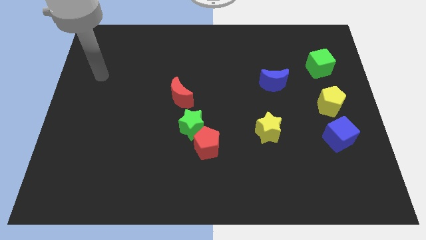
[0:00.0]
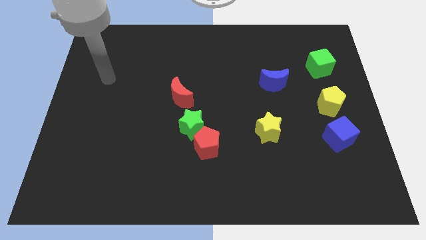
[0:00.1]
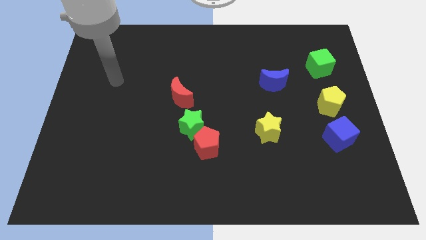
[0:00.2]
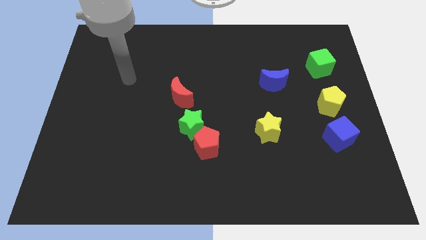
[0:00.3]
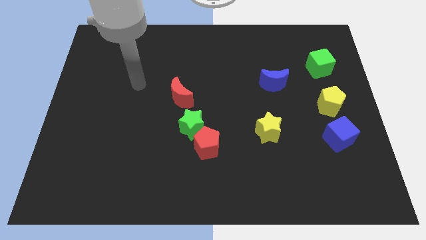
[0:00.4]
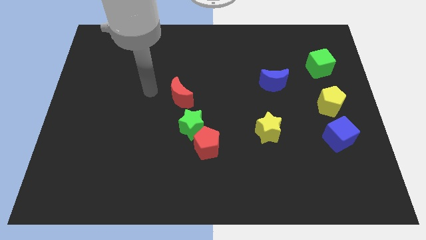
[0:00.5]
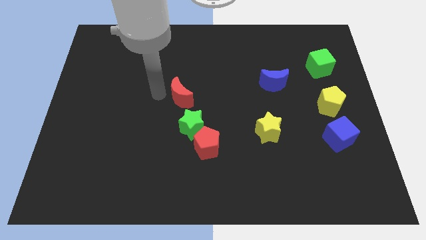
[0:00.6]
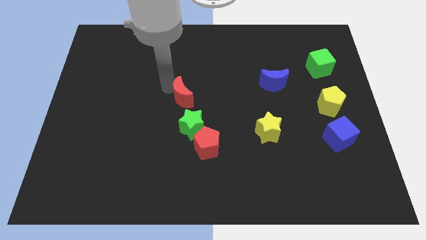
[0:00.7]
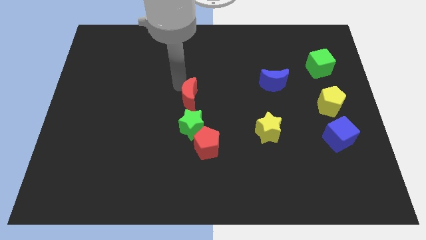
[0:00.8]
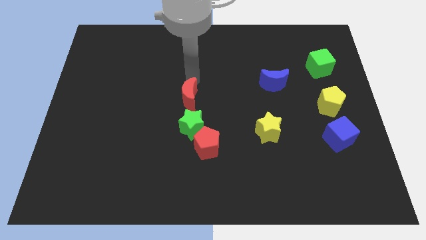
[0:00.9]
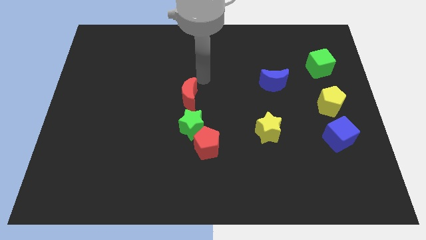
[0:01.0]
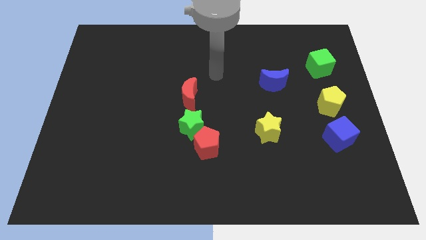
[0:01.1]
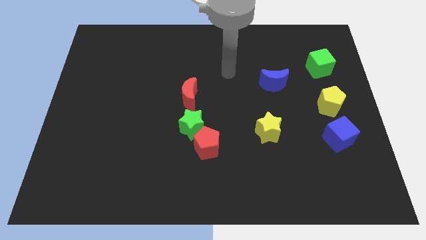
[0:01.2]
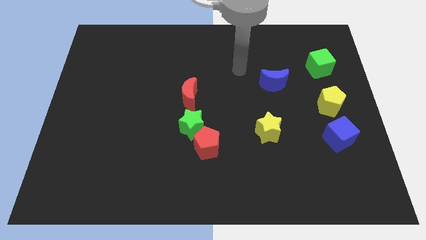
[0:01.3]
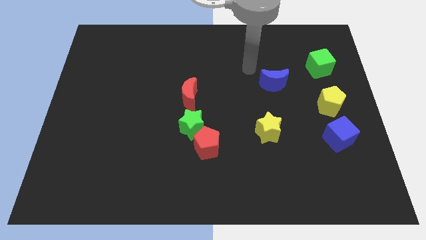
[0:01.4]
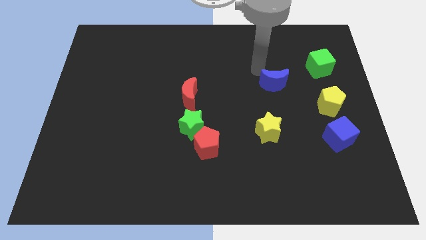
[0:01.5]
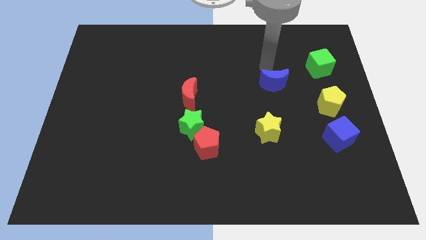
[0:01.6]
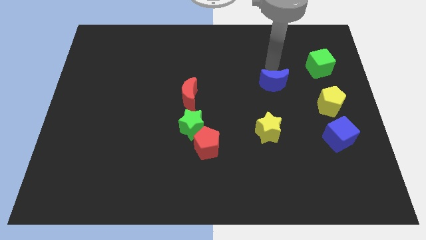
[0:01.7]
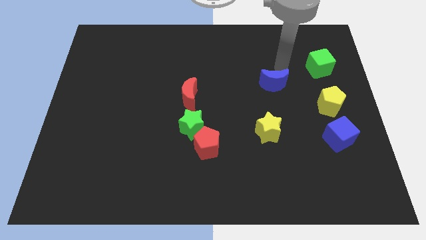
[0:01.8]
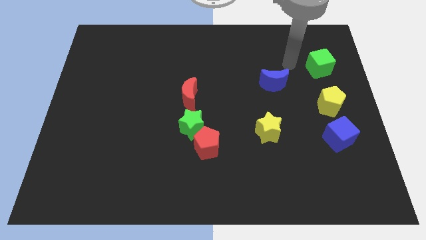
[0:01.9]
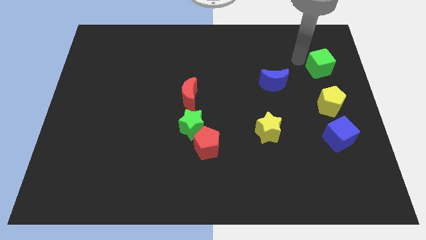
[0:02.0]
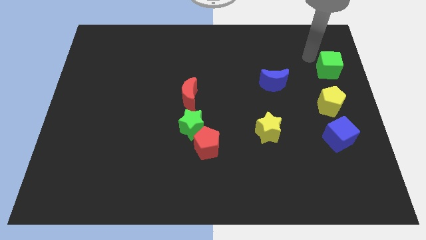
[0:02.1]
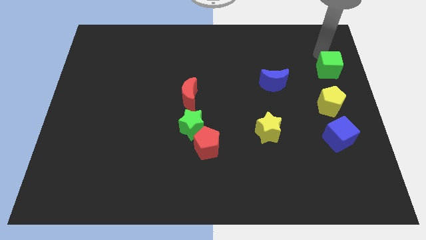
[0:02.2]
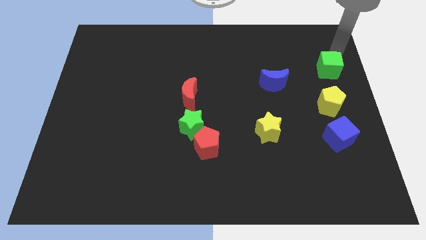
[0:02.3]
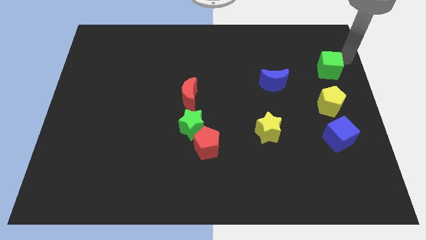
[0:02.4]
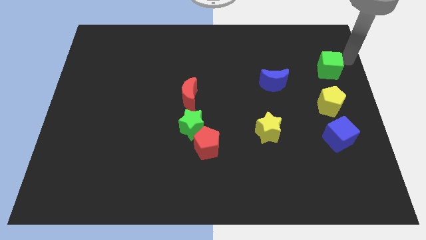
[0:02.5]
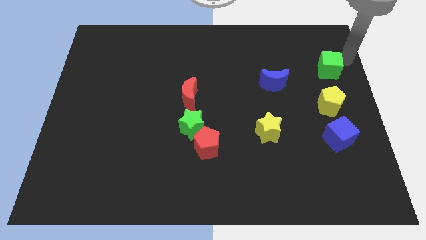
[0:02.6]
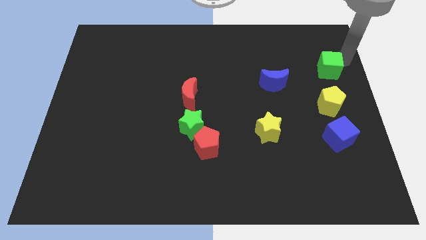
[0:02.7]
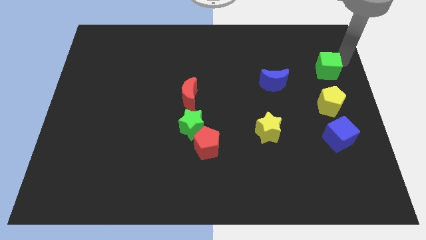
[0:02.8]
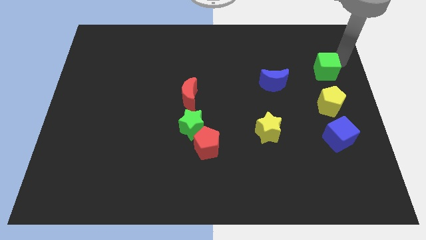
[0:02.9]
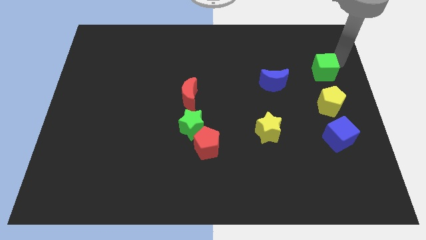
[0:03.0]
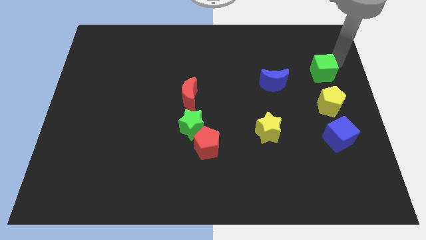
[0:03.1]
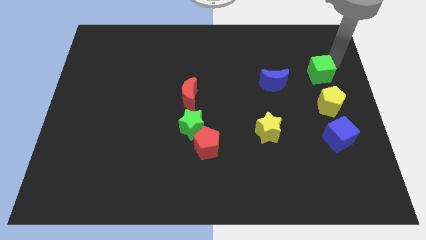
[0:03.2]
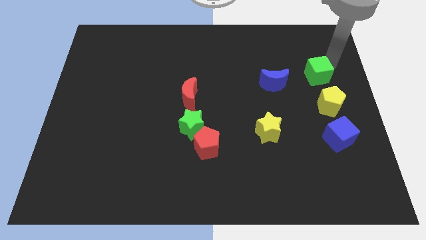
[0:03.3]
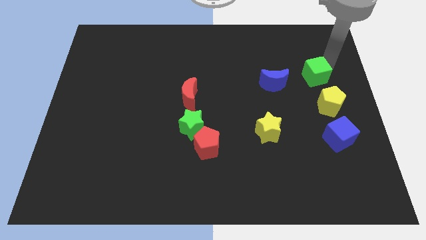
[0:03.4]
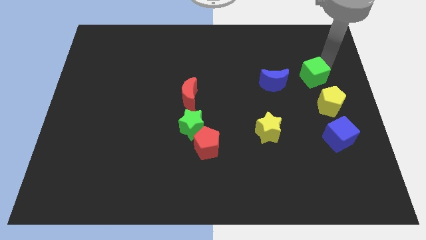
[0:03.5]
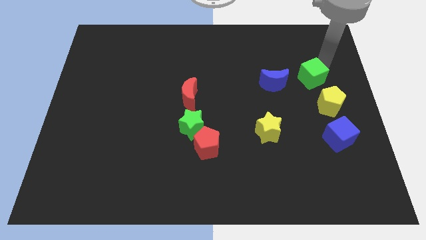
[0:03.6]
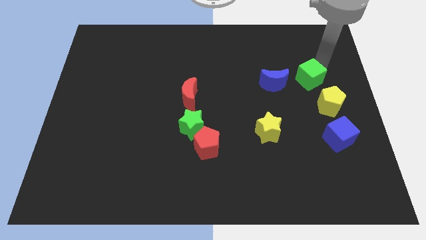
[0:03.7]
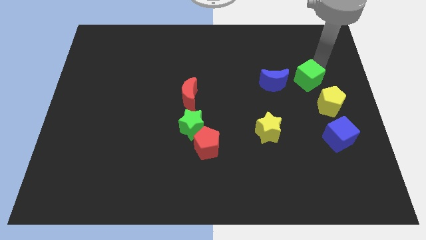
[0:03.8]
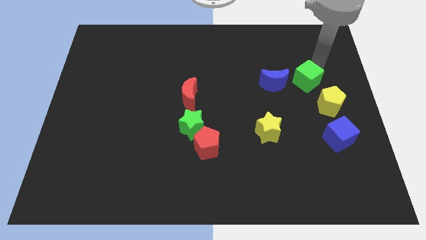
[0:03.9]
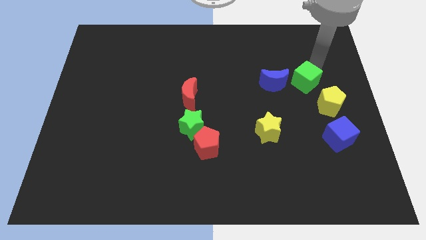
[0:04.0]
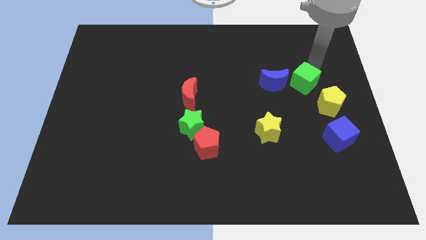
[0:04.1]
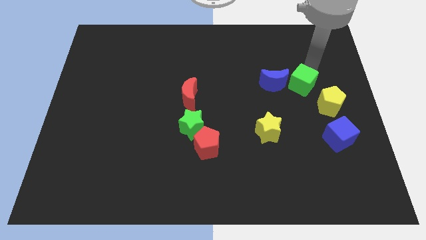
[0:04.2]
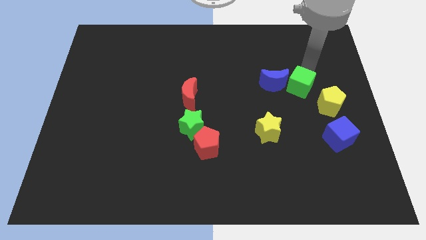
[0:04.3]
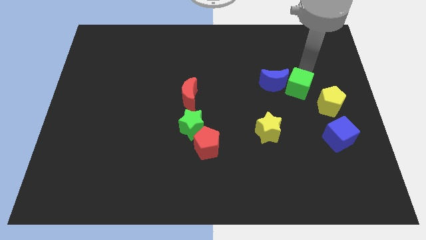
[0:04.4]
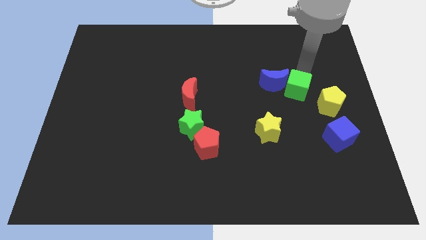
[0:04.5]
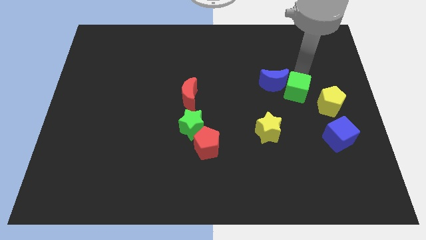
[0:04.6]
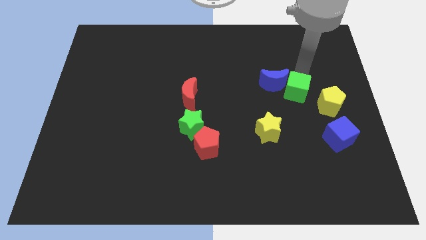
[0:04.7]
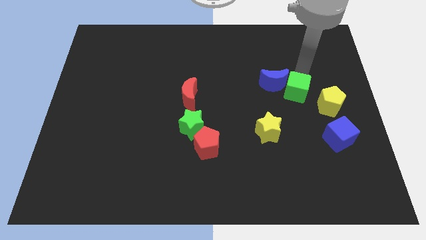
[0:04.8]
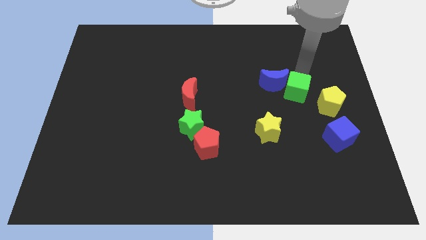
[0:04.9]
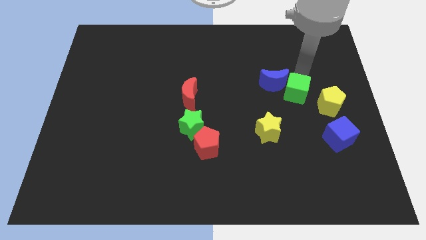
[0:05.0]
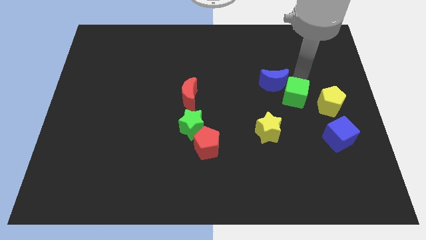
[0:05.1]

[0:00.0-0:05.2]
push the green cube below the blue moon

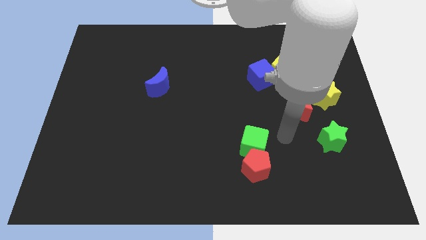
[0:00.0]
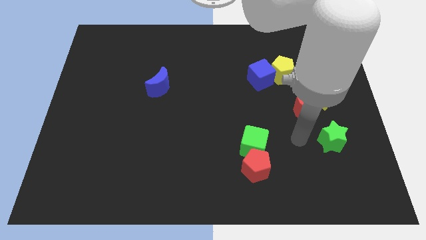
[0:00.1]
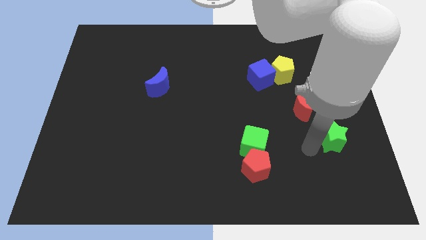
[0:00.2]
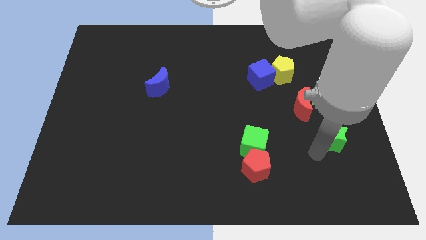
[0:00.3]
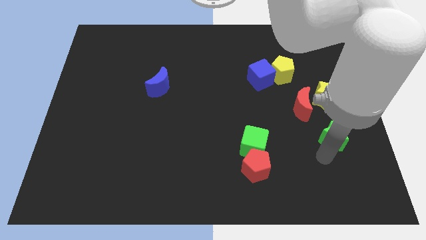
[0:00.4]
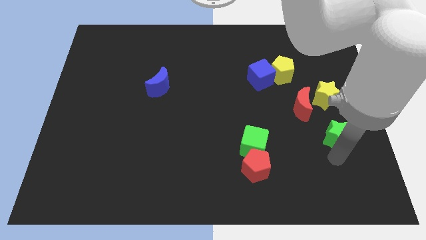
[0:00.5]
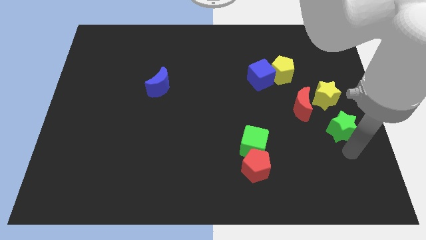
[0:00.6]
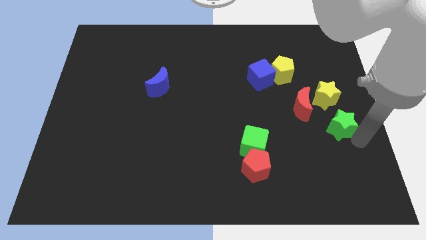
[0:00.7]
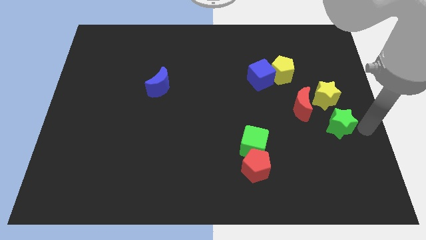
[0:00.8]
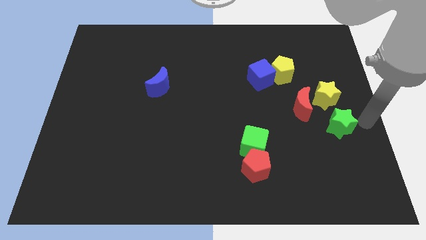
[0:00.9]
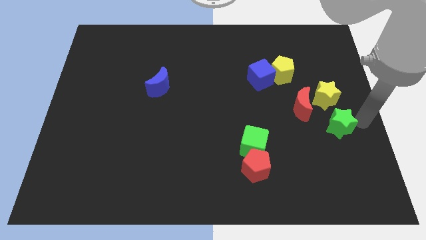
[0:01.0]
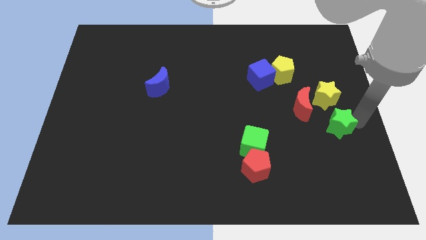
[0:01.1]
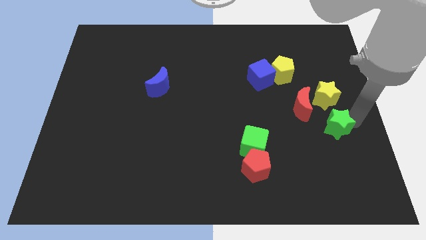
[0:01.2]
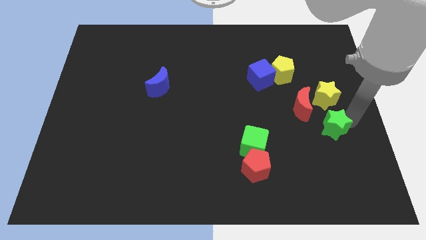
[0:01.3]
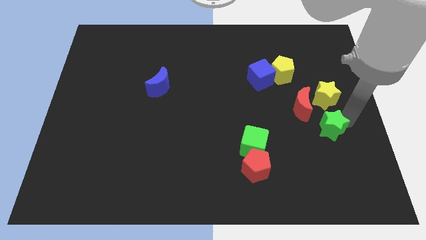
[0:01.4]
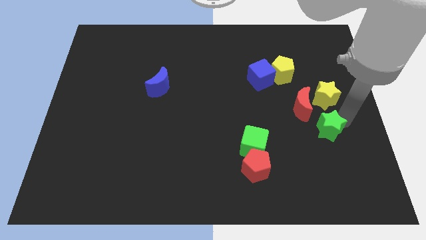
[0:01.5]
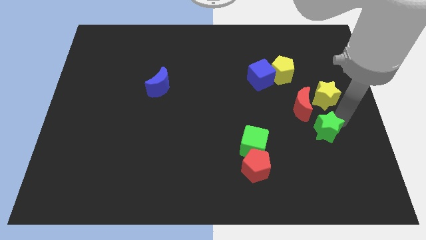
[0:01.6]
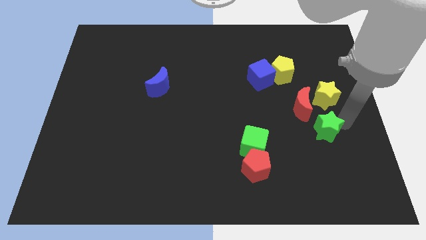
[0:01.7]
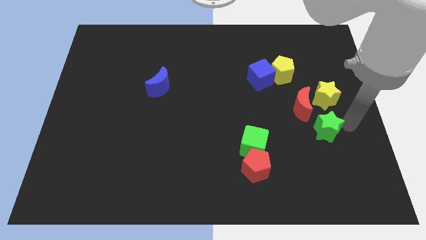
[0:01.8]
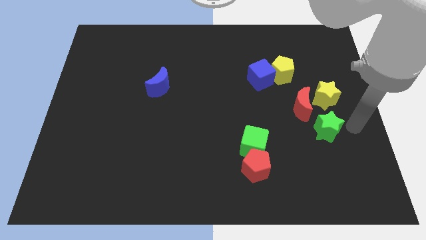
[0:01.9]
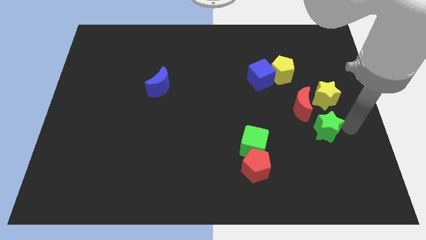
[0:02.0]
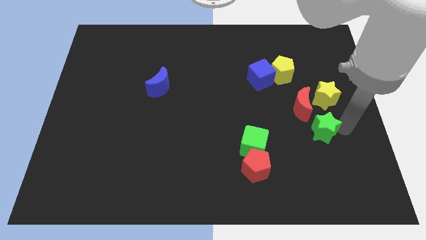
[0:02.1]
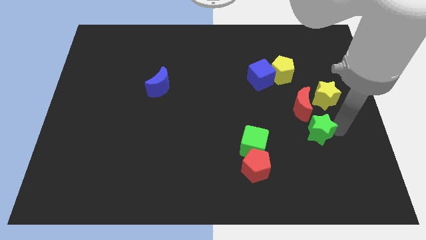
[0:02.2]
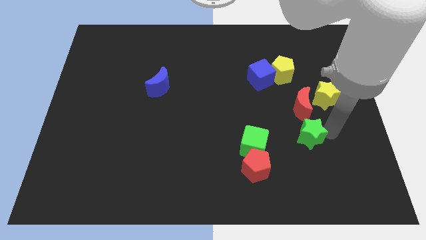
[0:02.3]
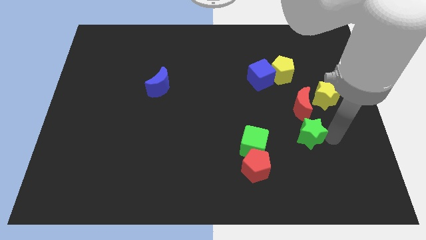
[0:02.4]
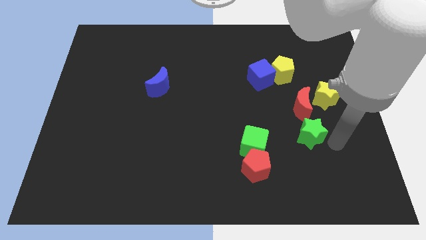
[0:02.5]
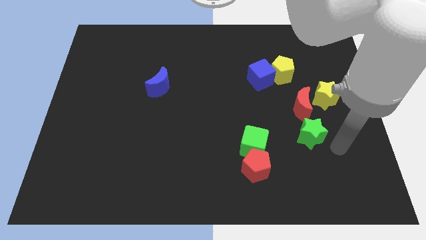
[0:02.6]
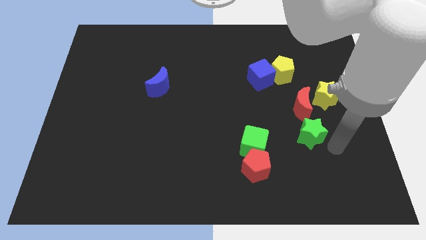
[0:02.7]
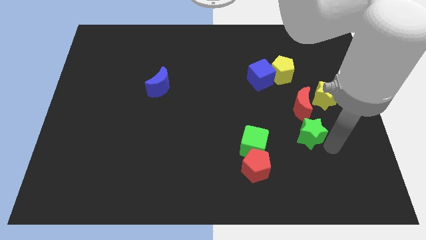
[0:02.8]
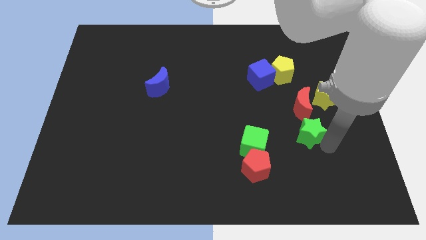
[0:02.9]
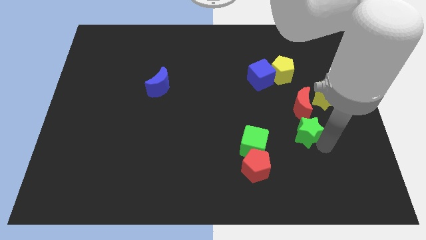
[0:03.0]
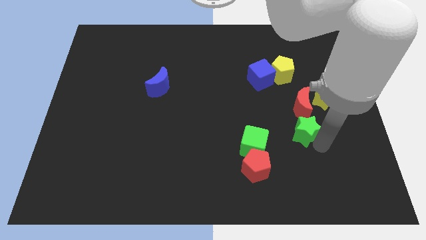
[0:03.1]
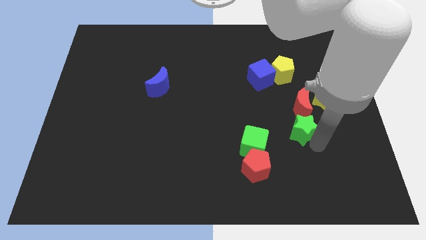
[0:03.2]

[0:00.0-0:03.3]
move the green star to the bottom left side of the red moon
